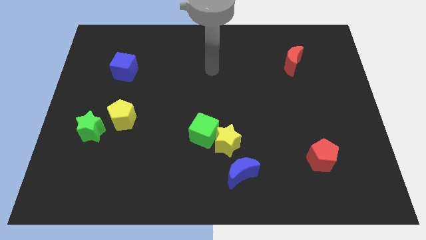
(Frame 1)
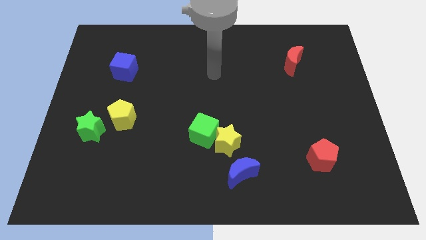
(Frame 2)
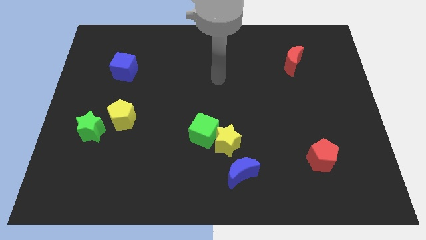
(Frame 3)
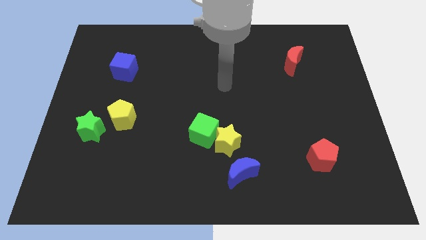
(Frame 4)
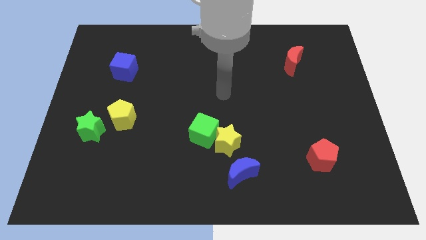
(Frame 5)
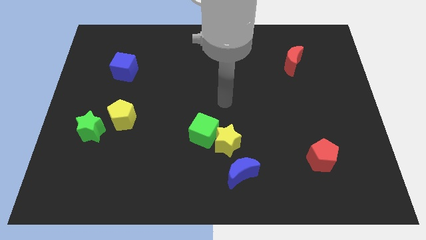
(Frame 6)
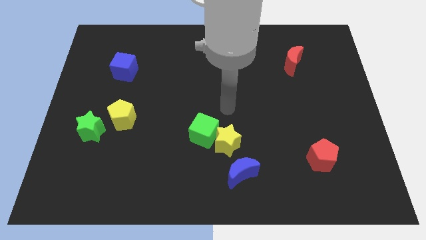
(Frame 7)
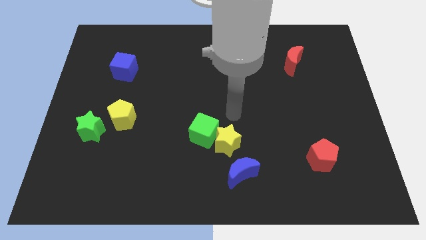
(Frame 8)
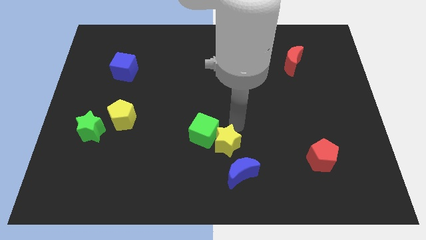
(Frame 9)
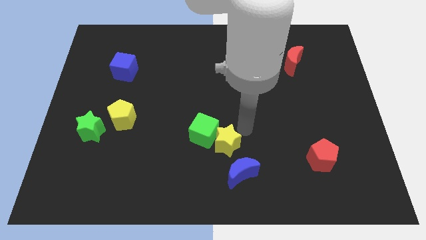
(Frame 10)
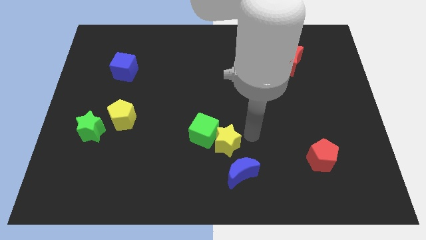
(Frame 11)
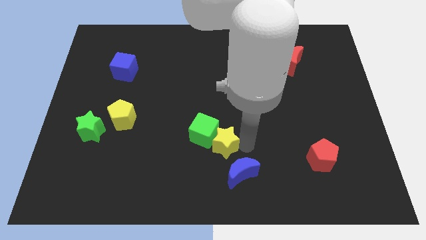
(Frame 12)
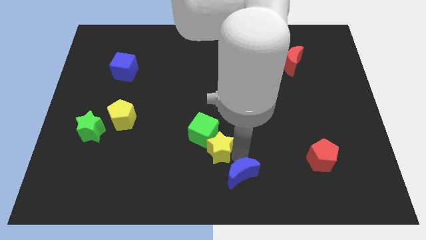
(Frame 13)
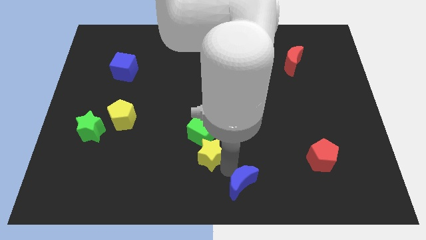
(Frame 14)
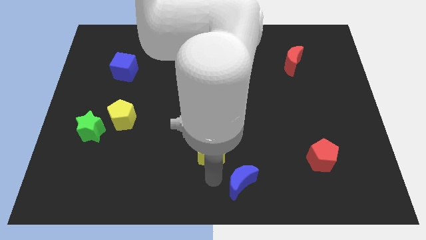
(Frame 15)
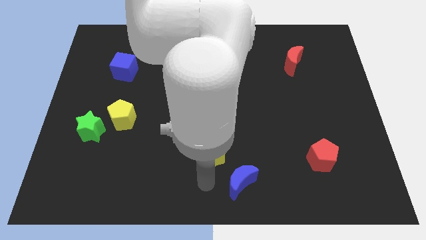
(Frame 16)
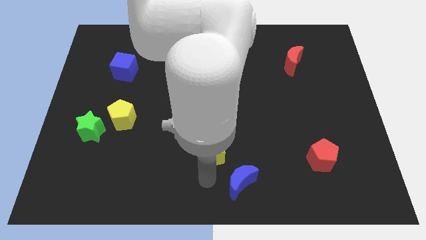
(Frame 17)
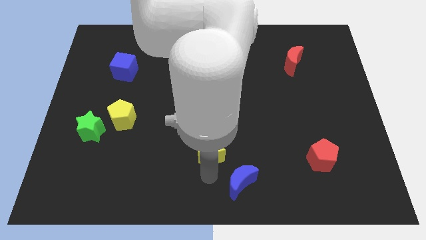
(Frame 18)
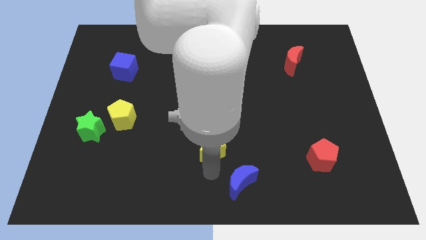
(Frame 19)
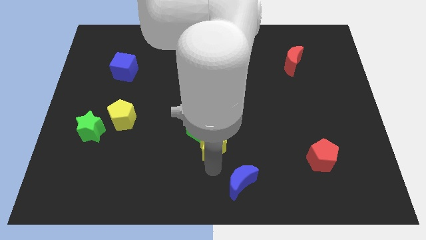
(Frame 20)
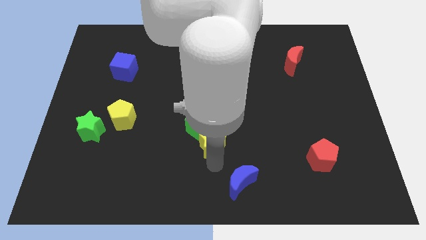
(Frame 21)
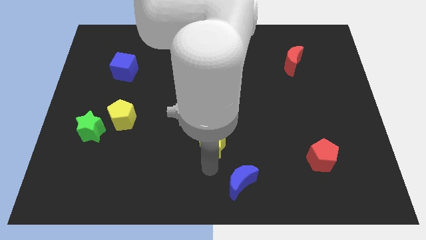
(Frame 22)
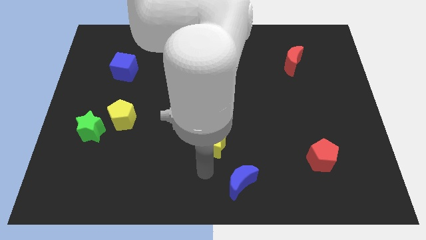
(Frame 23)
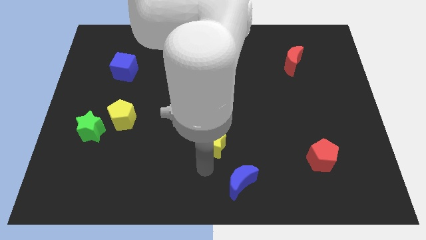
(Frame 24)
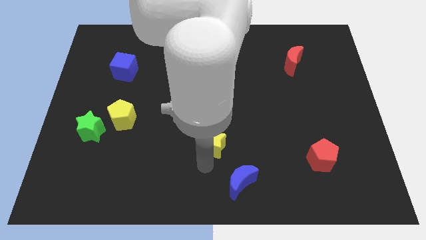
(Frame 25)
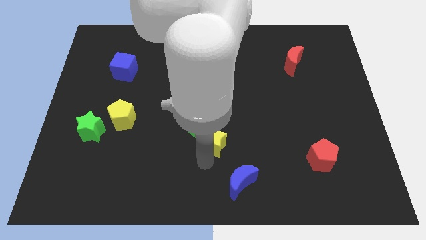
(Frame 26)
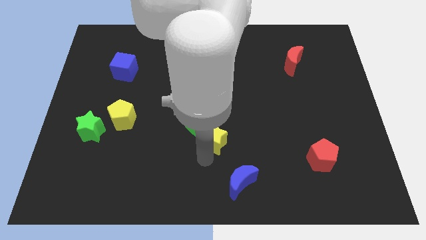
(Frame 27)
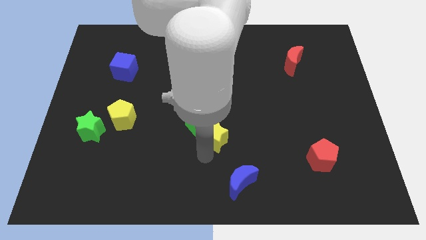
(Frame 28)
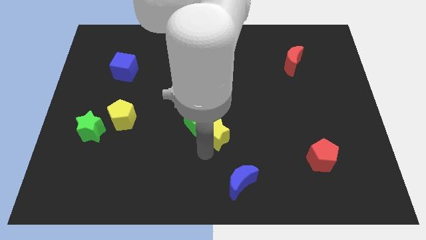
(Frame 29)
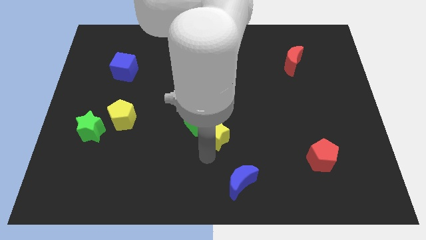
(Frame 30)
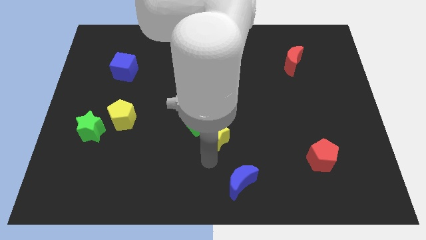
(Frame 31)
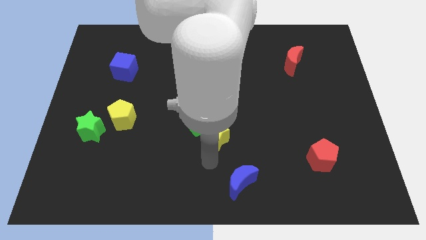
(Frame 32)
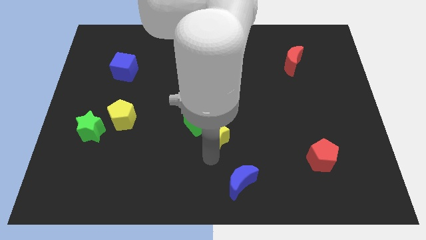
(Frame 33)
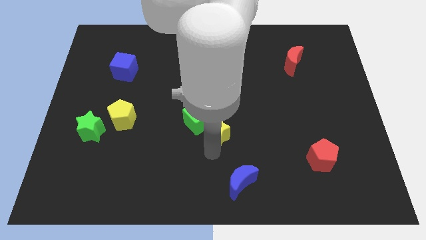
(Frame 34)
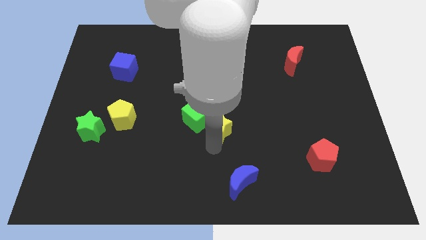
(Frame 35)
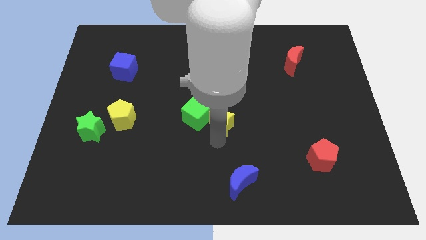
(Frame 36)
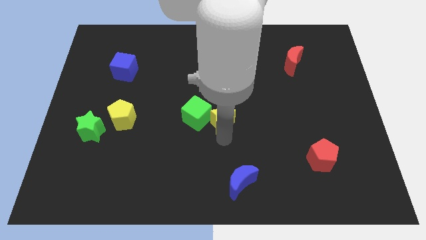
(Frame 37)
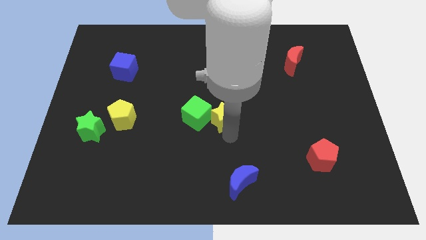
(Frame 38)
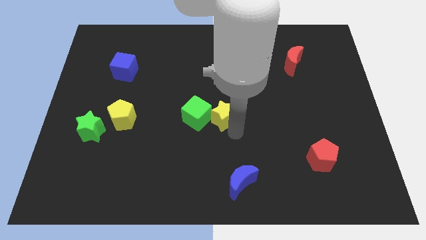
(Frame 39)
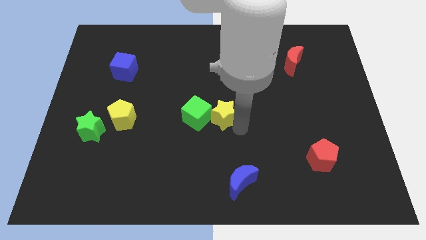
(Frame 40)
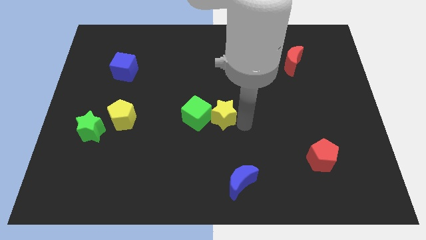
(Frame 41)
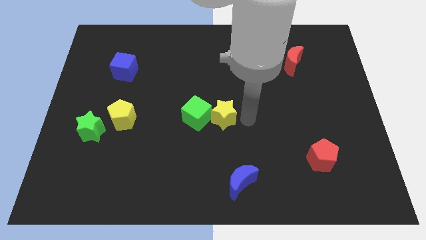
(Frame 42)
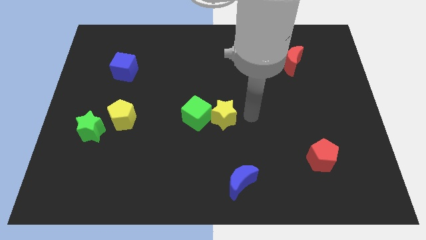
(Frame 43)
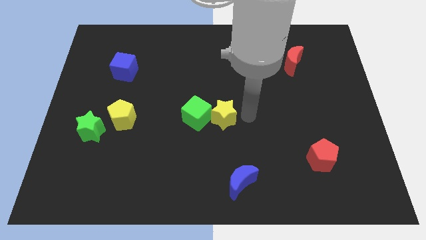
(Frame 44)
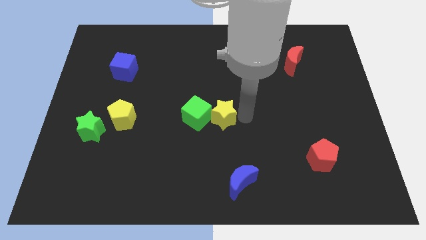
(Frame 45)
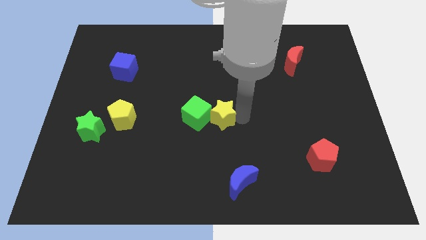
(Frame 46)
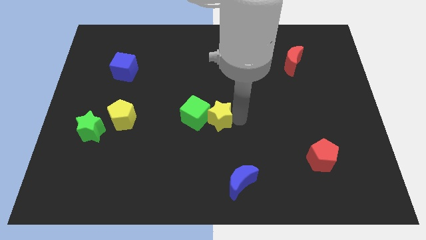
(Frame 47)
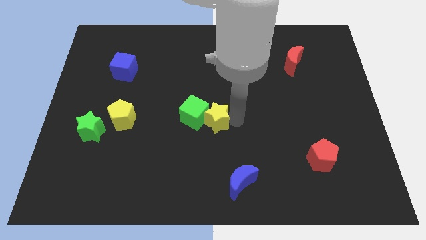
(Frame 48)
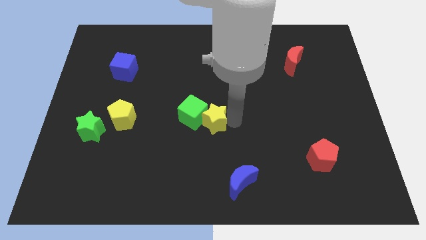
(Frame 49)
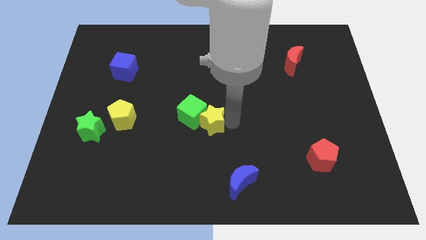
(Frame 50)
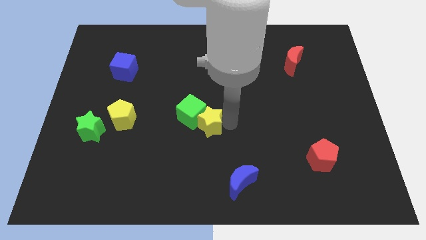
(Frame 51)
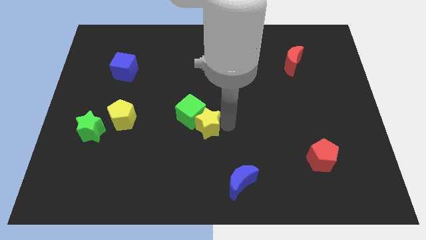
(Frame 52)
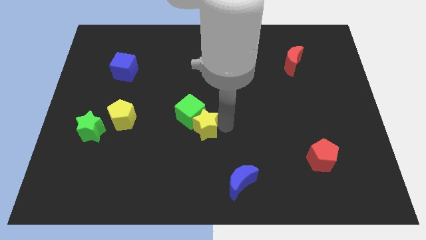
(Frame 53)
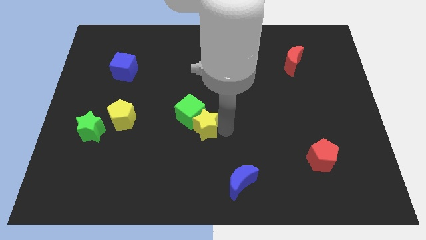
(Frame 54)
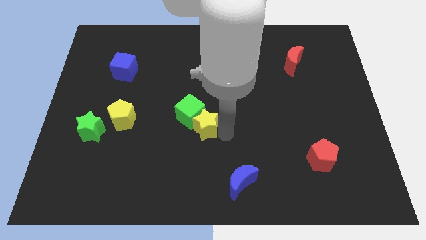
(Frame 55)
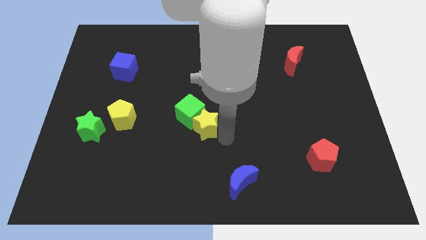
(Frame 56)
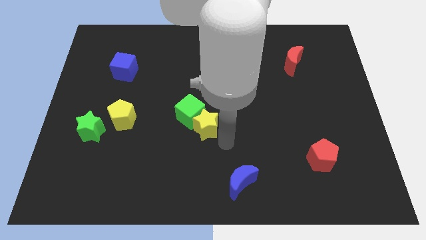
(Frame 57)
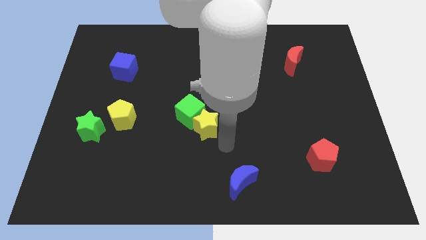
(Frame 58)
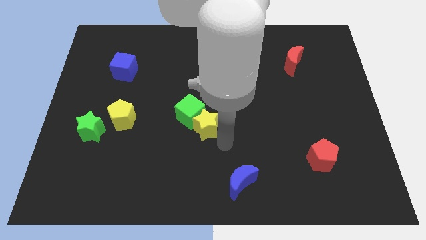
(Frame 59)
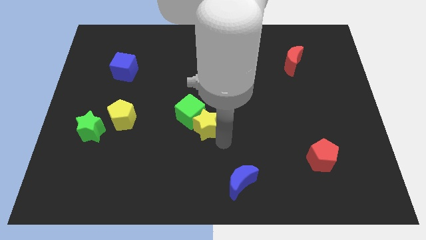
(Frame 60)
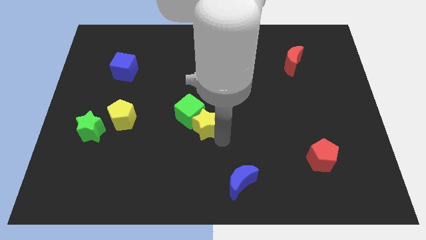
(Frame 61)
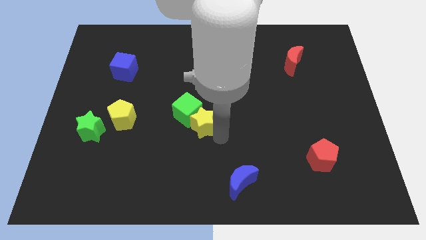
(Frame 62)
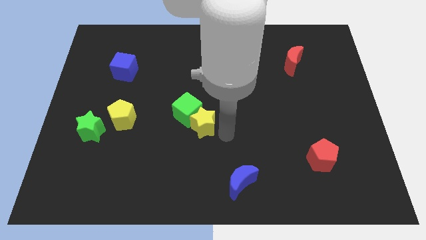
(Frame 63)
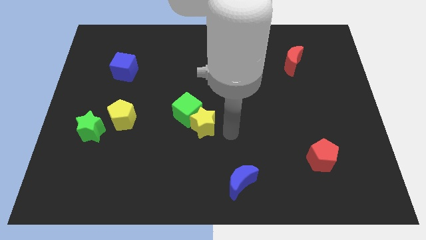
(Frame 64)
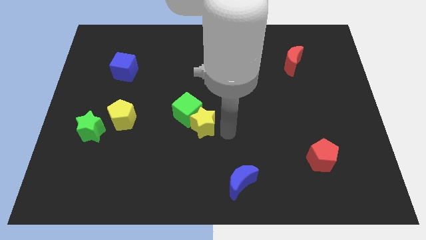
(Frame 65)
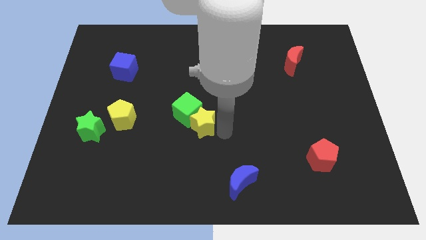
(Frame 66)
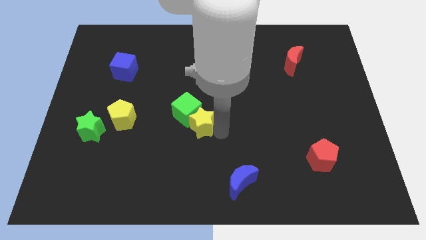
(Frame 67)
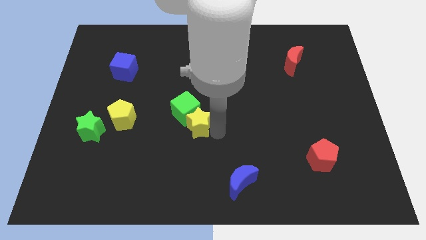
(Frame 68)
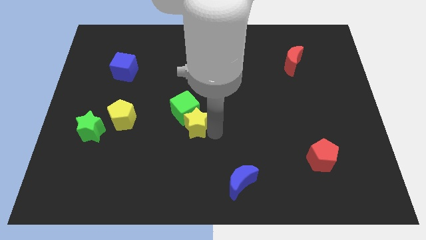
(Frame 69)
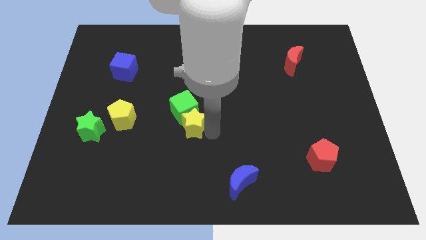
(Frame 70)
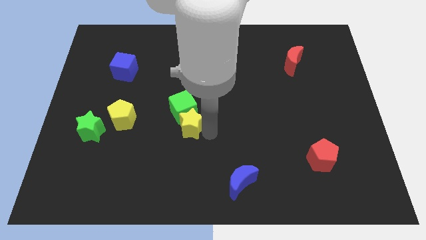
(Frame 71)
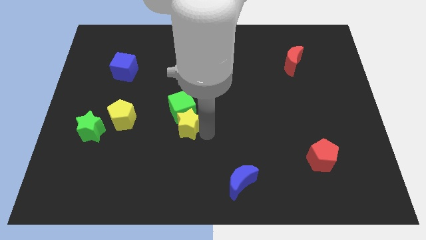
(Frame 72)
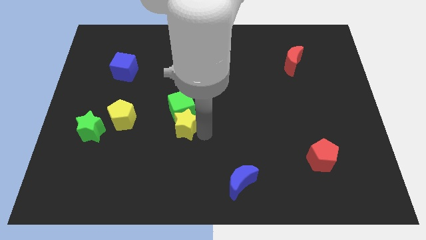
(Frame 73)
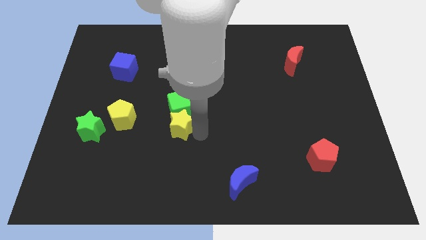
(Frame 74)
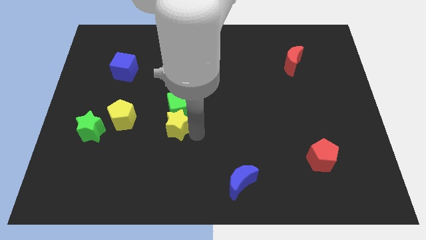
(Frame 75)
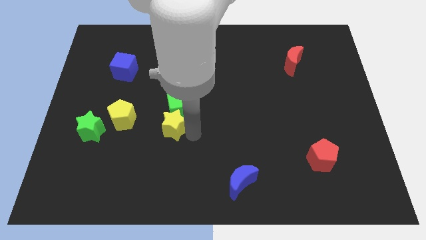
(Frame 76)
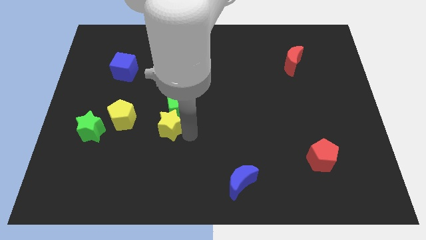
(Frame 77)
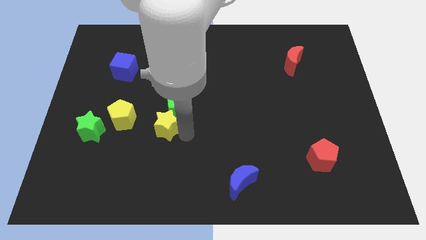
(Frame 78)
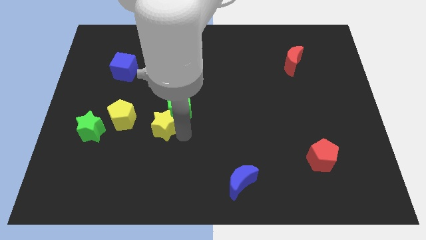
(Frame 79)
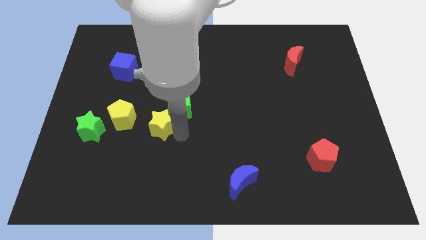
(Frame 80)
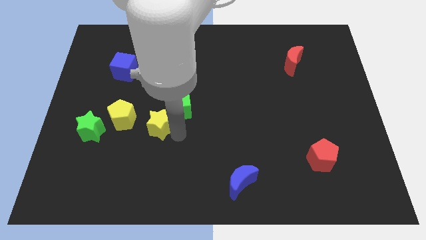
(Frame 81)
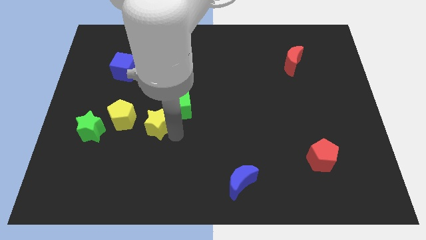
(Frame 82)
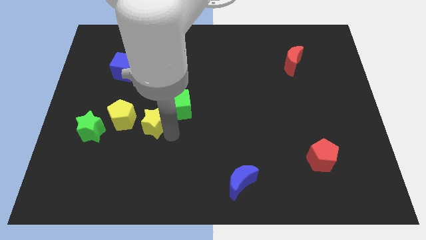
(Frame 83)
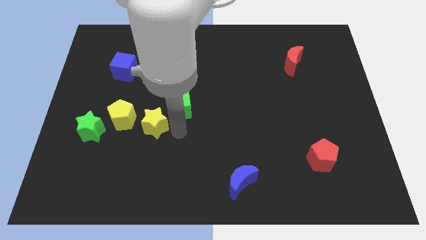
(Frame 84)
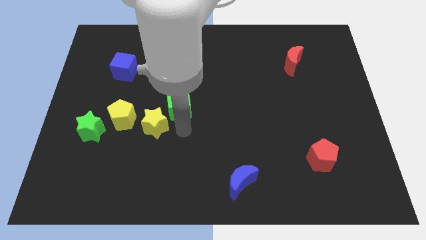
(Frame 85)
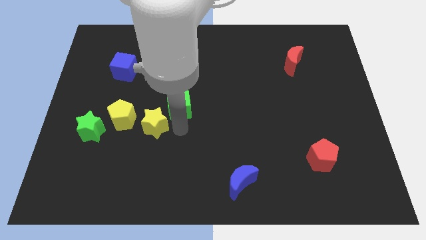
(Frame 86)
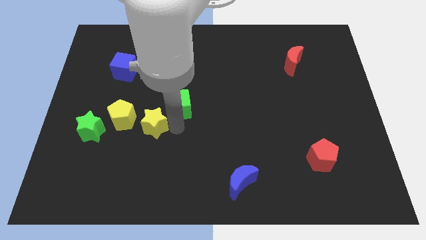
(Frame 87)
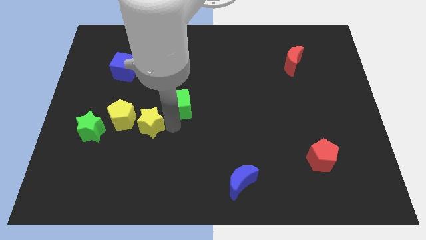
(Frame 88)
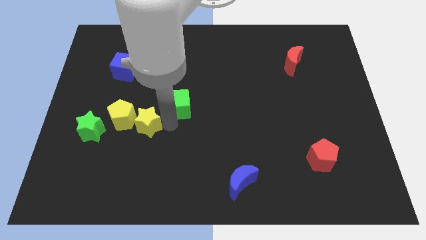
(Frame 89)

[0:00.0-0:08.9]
push the yellow star to the yellow pentagon
